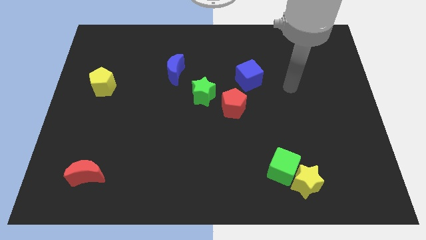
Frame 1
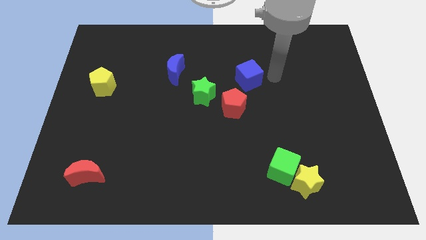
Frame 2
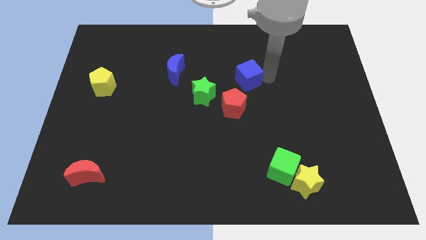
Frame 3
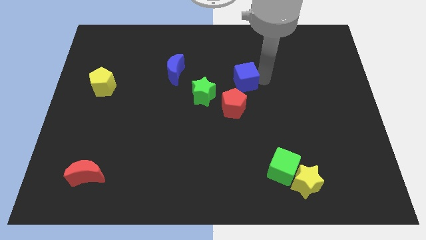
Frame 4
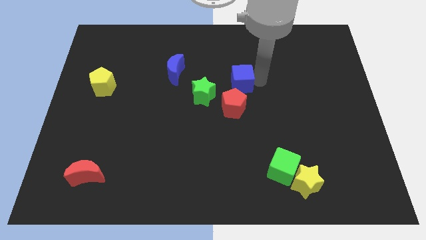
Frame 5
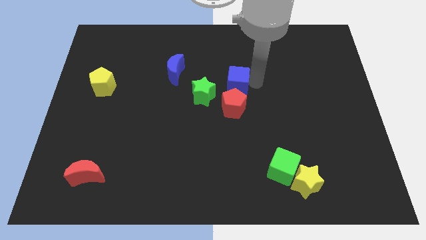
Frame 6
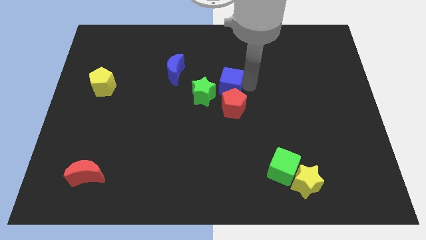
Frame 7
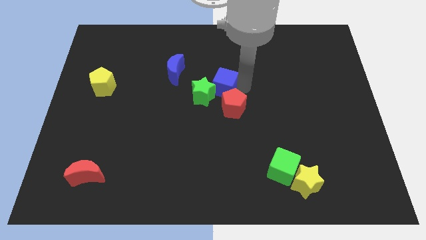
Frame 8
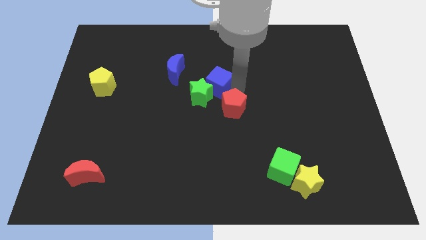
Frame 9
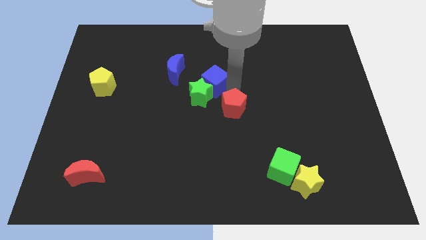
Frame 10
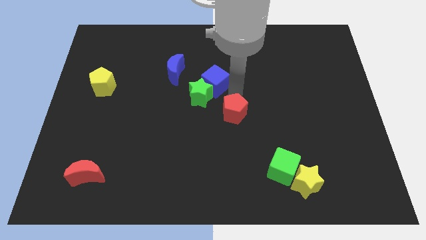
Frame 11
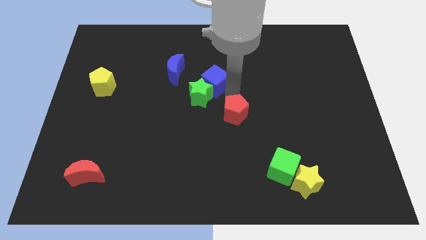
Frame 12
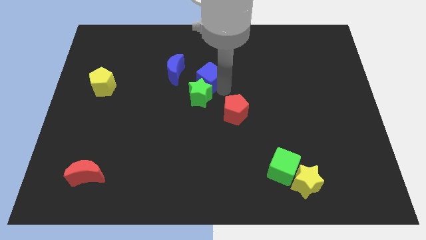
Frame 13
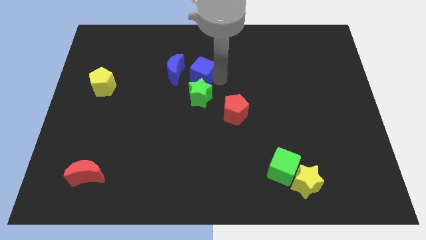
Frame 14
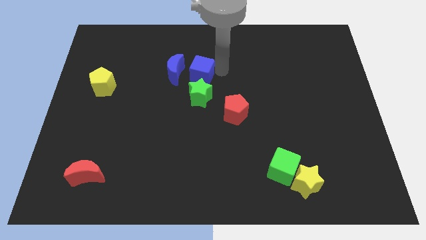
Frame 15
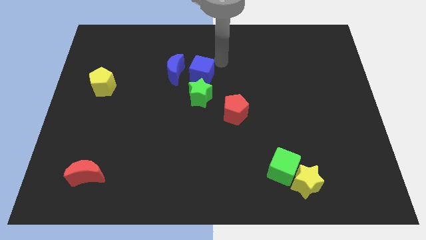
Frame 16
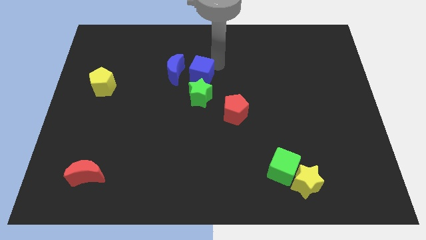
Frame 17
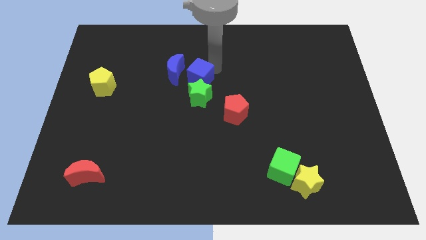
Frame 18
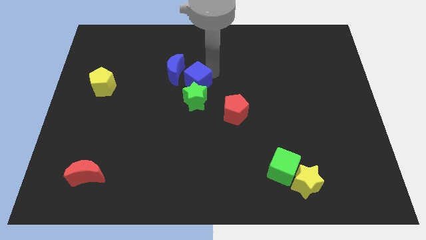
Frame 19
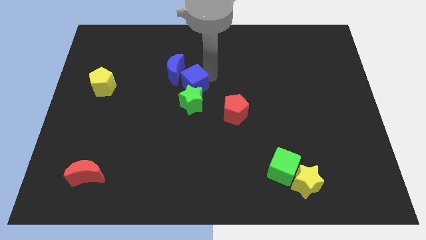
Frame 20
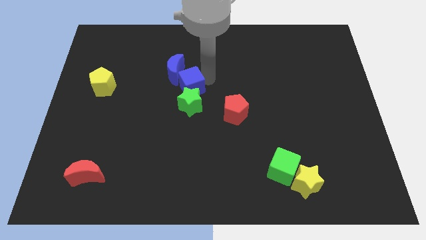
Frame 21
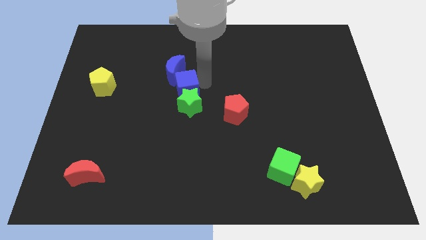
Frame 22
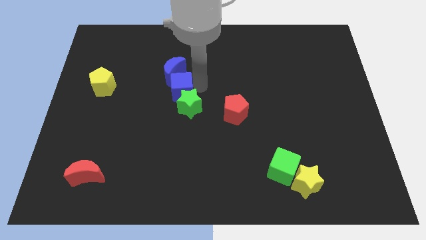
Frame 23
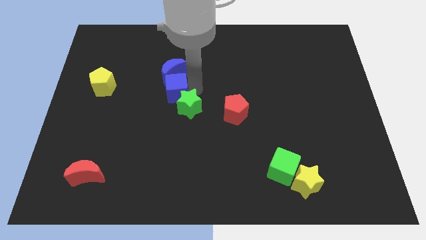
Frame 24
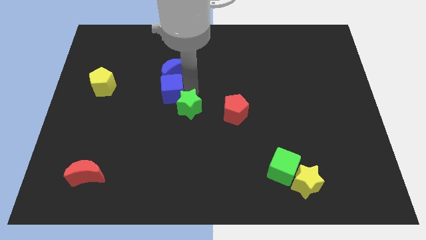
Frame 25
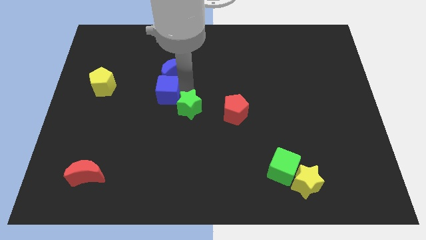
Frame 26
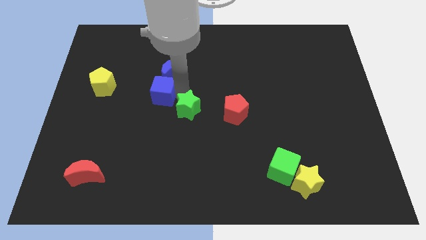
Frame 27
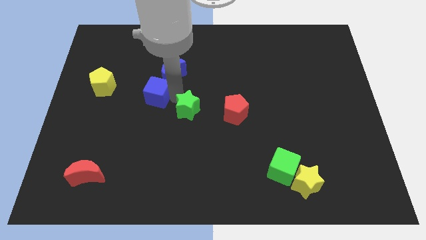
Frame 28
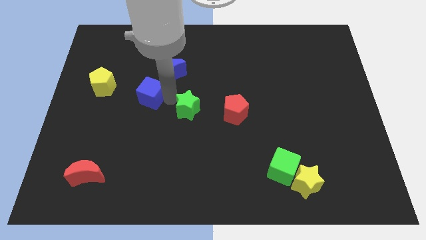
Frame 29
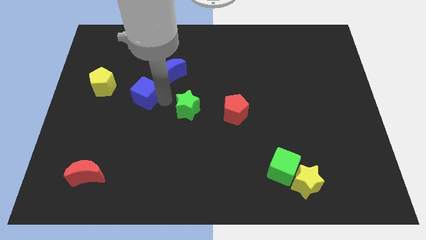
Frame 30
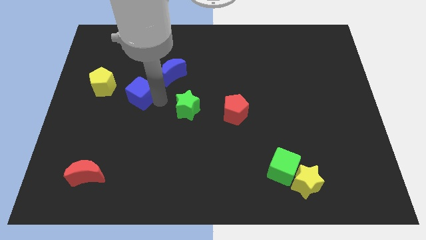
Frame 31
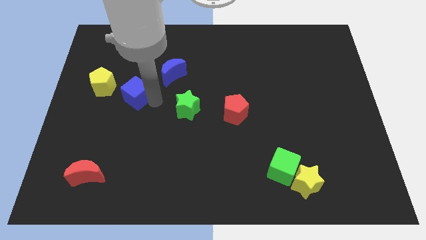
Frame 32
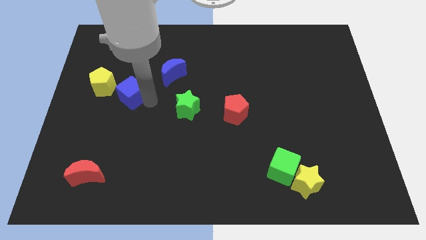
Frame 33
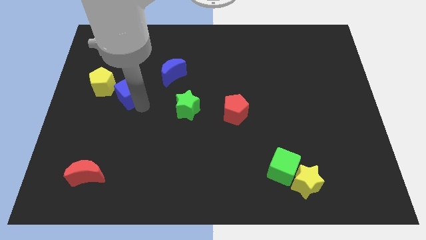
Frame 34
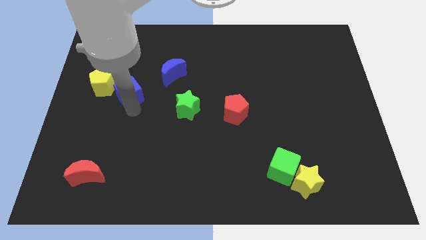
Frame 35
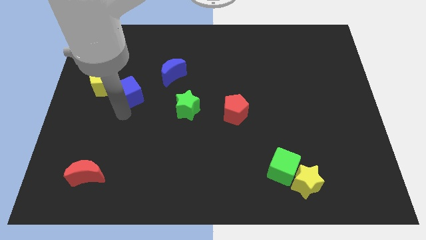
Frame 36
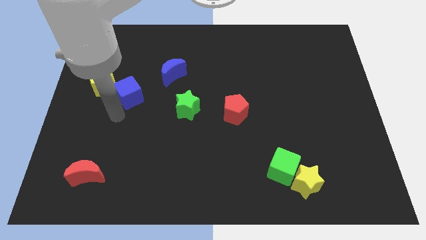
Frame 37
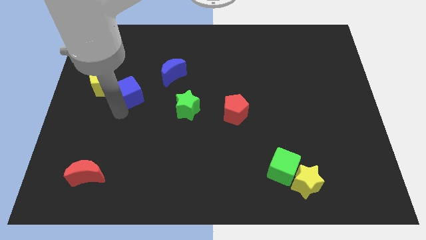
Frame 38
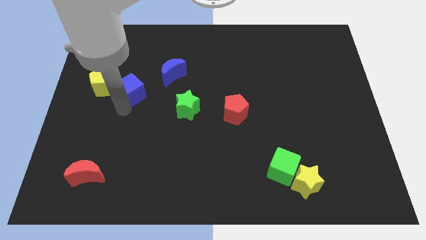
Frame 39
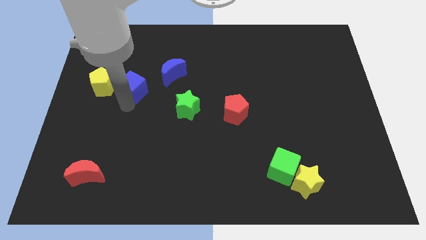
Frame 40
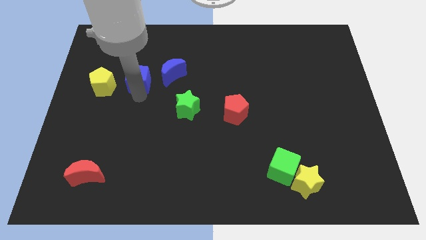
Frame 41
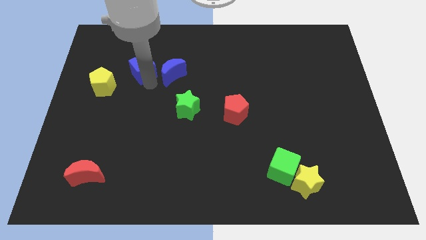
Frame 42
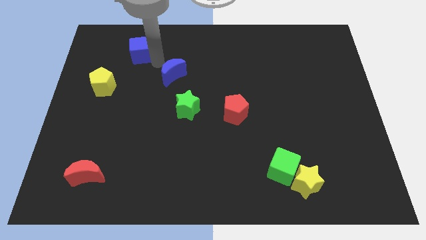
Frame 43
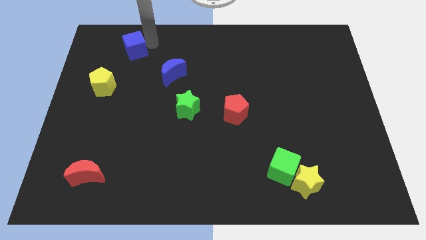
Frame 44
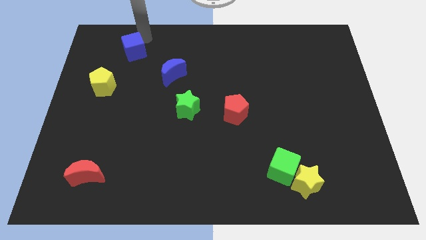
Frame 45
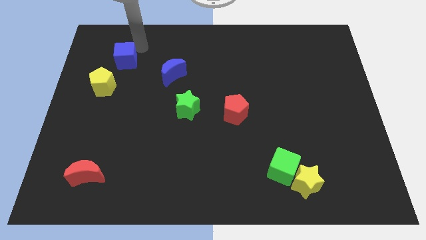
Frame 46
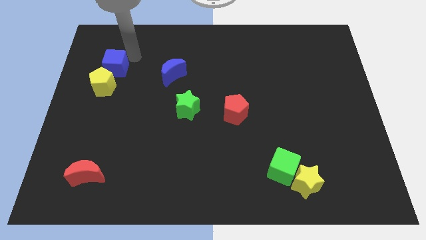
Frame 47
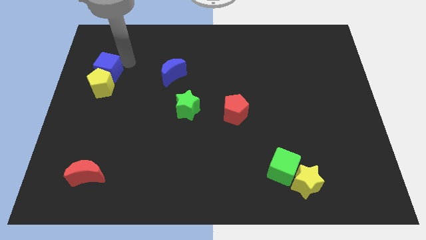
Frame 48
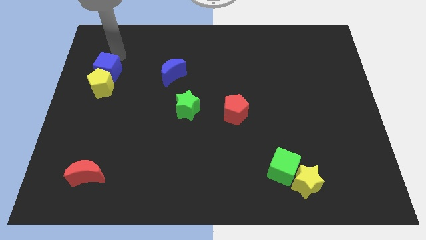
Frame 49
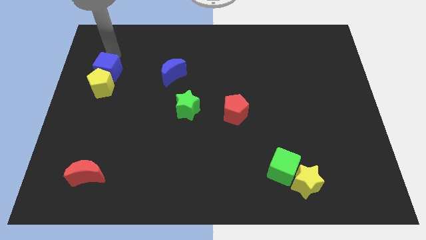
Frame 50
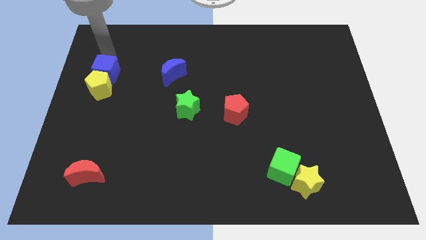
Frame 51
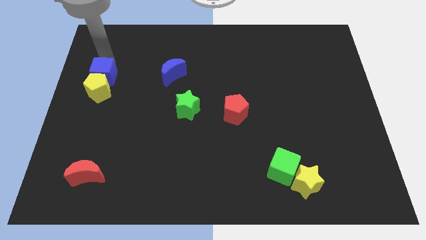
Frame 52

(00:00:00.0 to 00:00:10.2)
push the blue cube to the center left

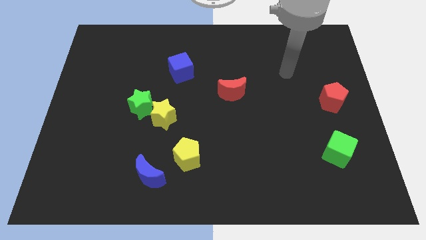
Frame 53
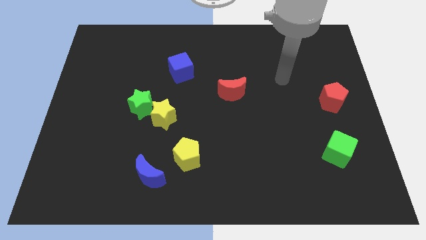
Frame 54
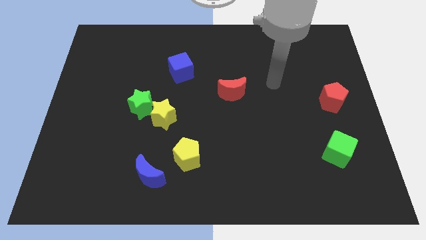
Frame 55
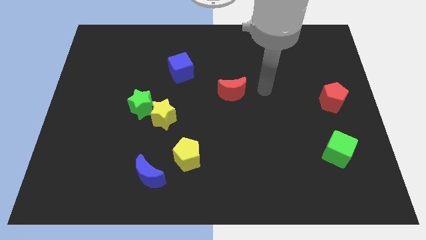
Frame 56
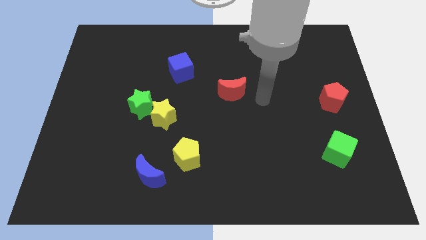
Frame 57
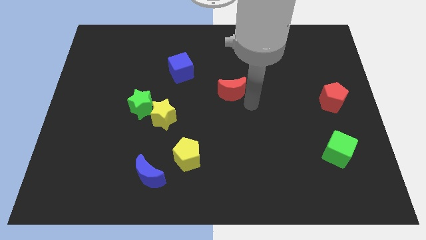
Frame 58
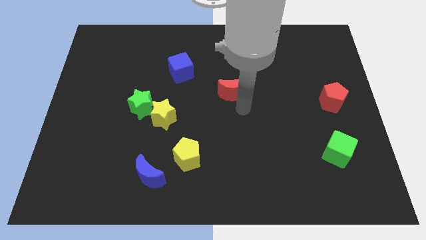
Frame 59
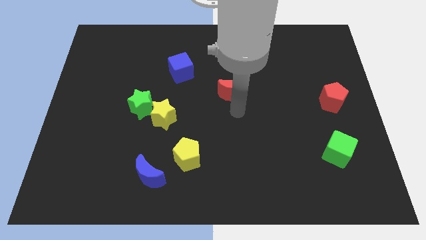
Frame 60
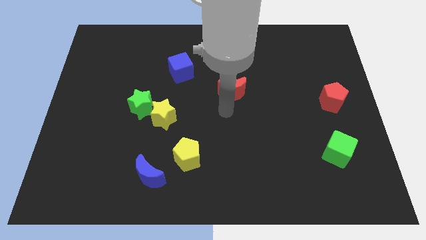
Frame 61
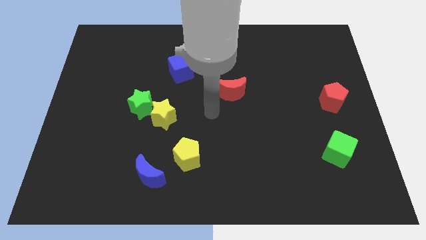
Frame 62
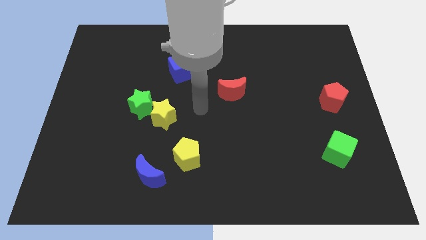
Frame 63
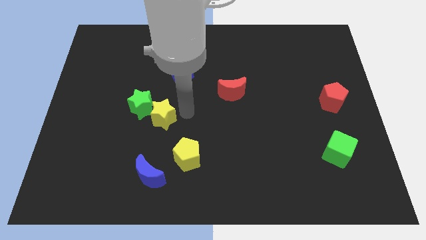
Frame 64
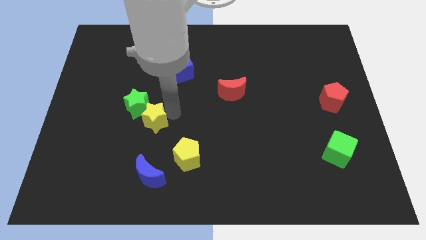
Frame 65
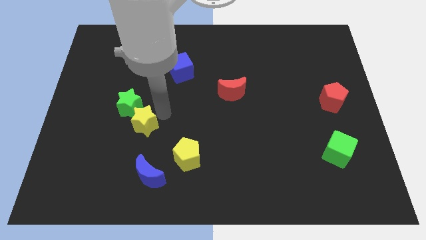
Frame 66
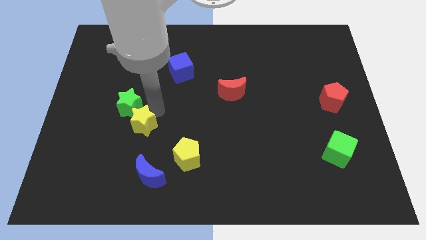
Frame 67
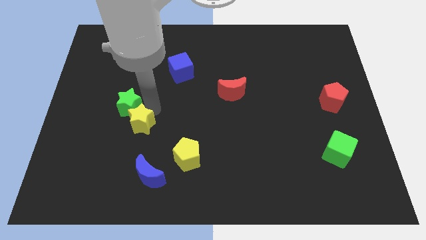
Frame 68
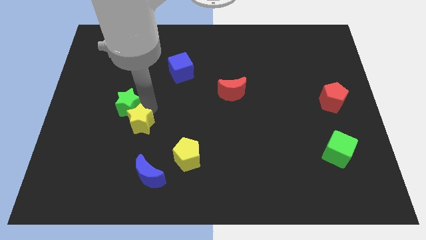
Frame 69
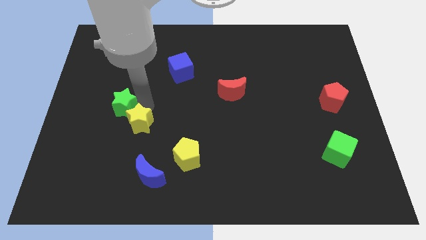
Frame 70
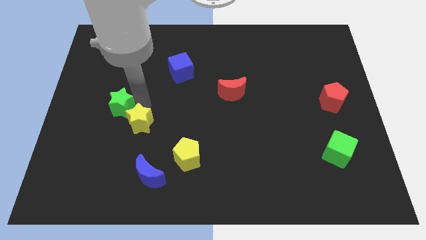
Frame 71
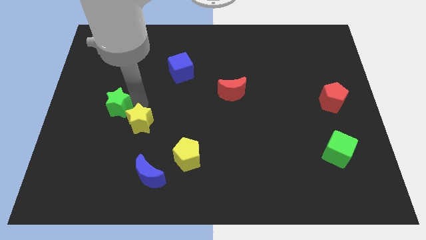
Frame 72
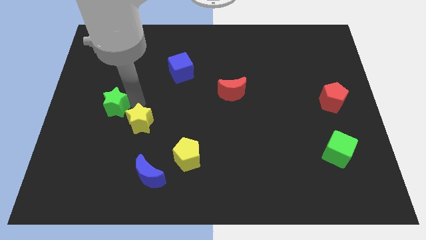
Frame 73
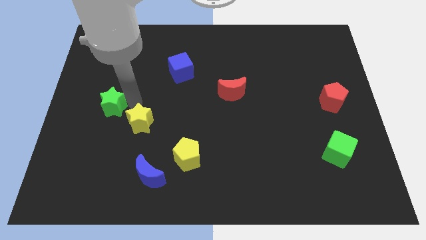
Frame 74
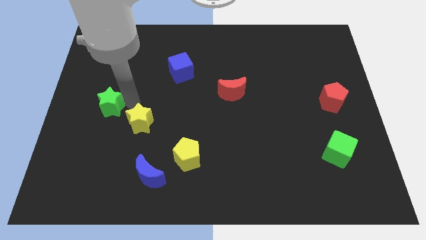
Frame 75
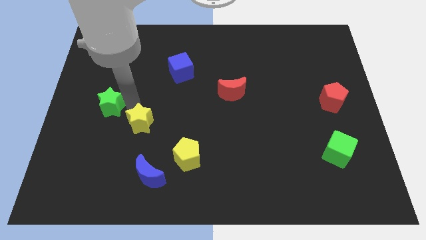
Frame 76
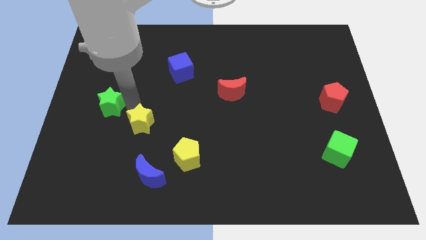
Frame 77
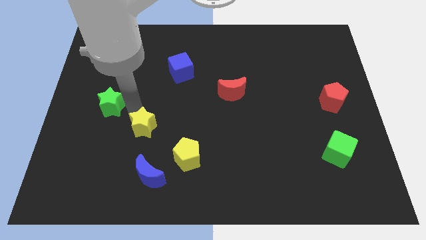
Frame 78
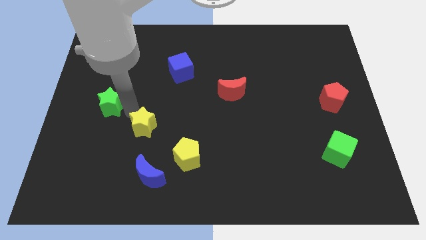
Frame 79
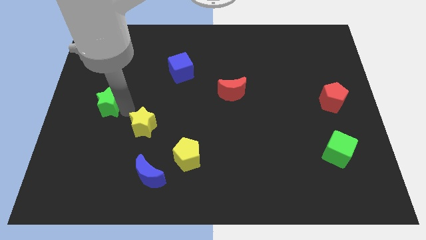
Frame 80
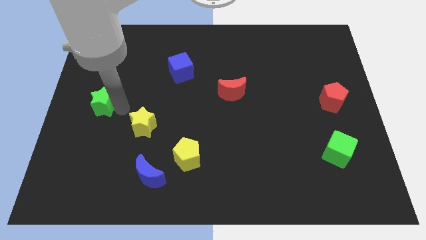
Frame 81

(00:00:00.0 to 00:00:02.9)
push the green star to the left side of the board

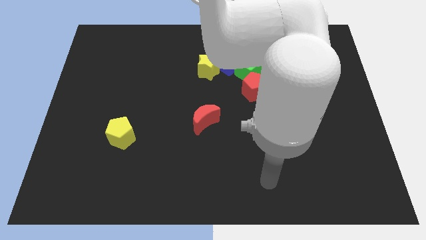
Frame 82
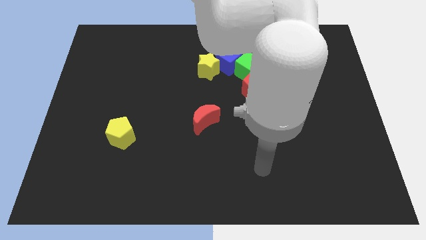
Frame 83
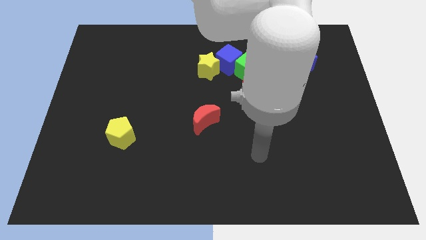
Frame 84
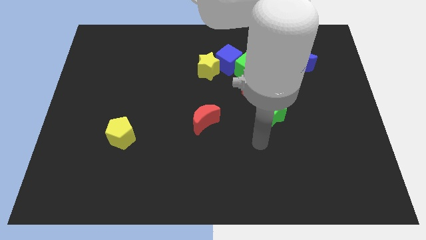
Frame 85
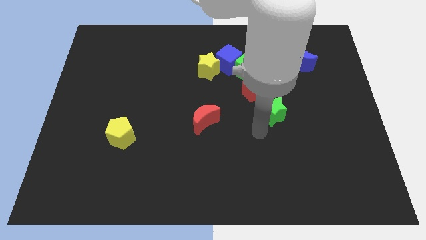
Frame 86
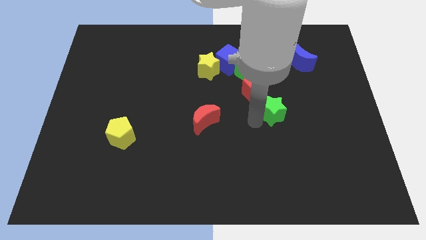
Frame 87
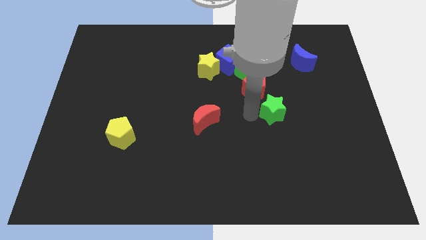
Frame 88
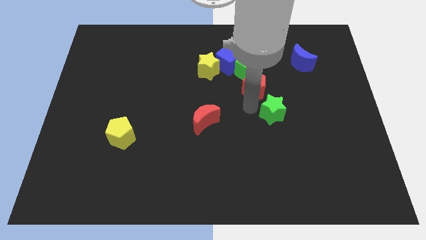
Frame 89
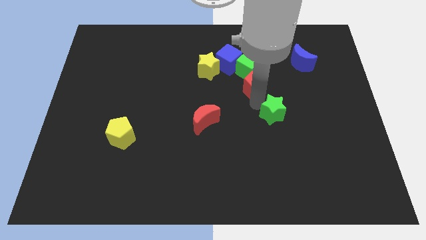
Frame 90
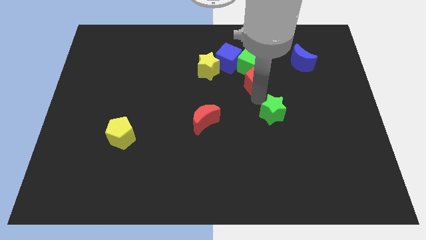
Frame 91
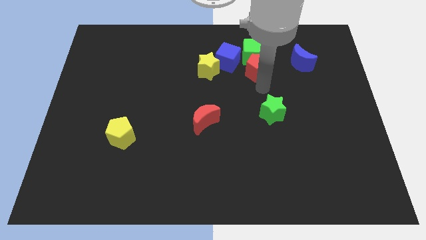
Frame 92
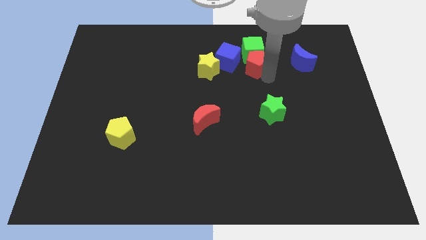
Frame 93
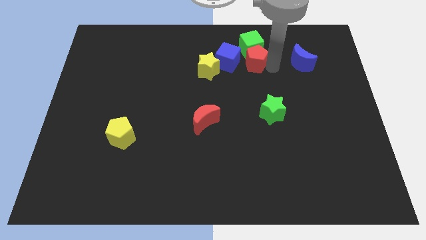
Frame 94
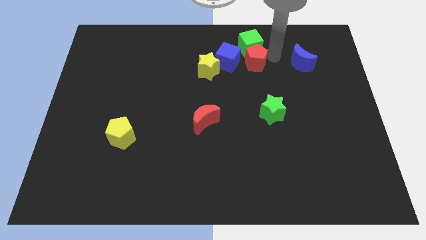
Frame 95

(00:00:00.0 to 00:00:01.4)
slide the green cube to the towards your base
